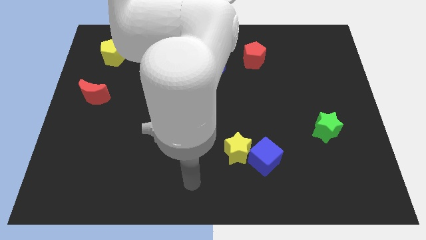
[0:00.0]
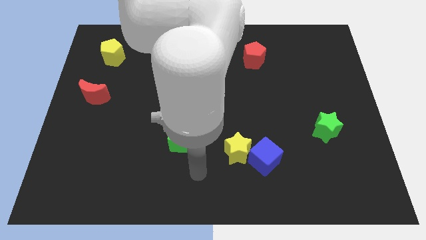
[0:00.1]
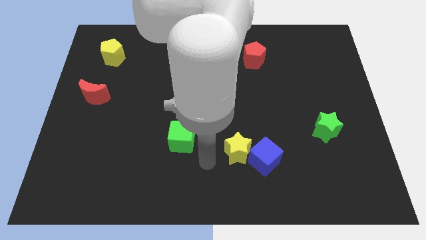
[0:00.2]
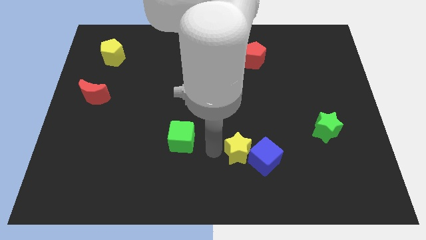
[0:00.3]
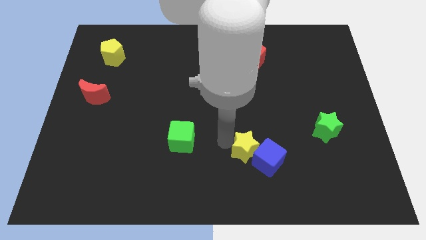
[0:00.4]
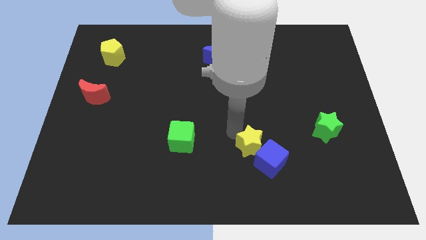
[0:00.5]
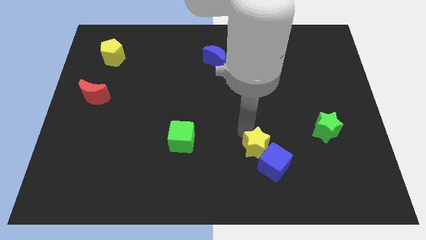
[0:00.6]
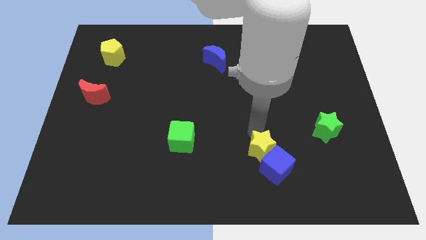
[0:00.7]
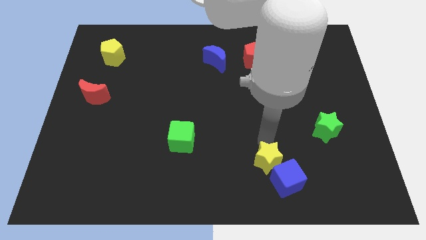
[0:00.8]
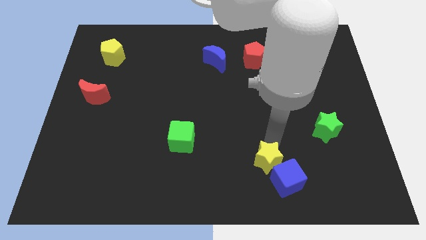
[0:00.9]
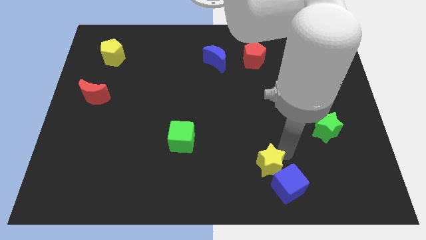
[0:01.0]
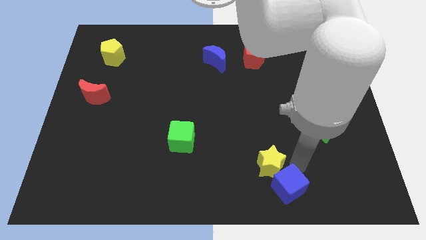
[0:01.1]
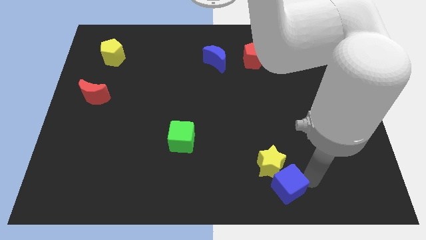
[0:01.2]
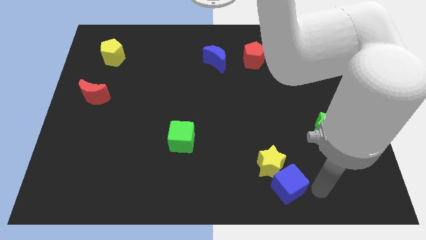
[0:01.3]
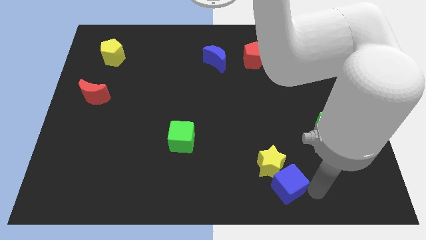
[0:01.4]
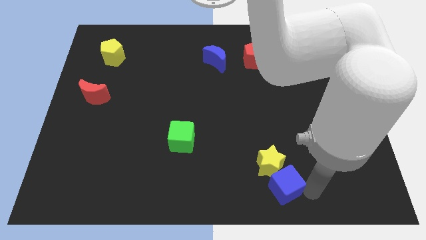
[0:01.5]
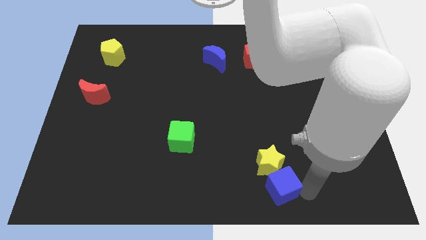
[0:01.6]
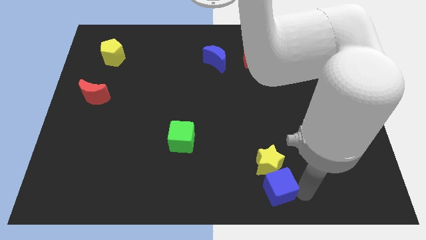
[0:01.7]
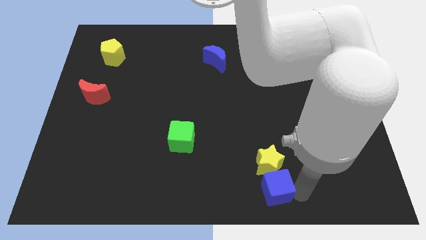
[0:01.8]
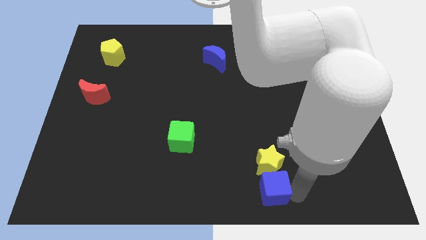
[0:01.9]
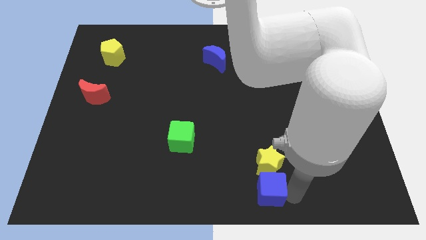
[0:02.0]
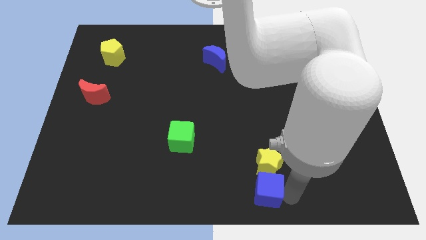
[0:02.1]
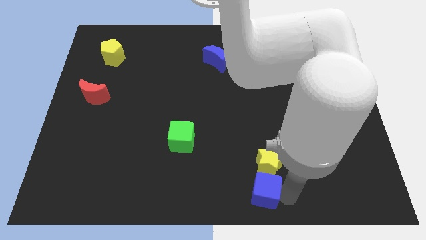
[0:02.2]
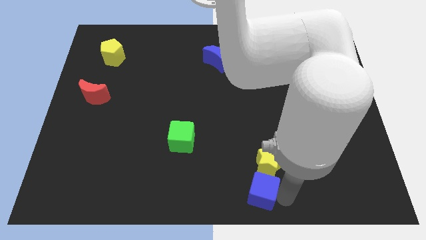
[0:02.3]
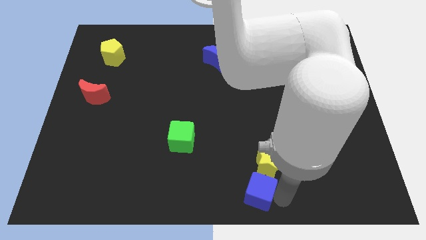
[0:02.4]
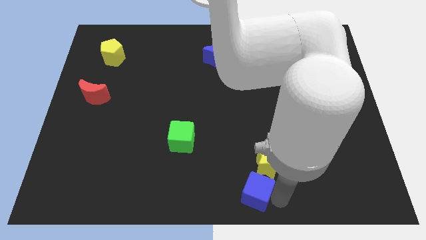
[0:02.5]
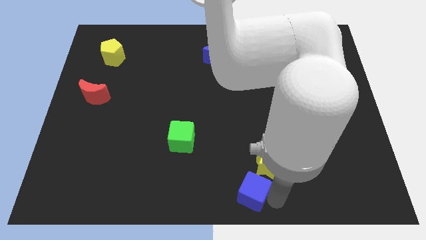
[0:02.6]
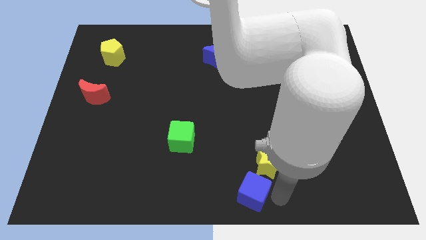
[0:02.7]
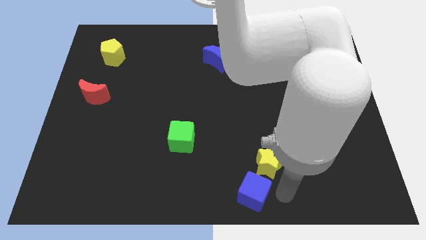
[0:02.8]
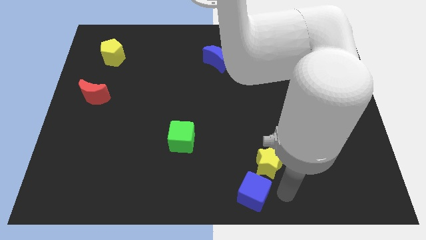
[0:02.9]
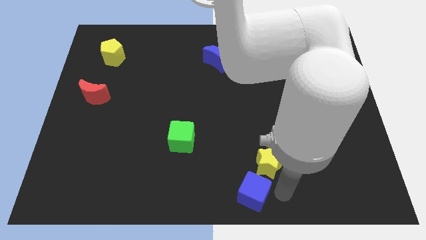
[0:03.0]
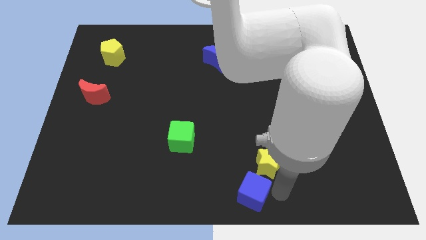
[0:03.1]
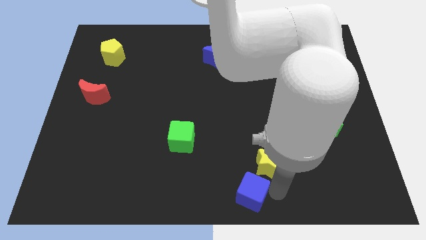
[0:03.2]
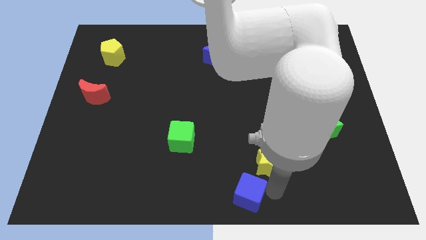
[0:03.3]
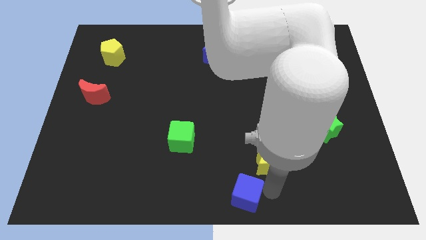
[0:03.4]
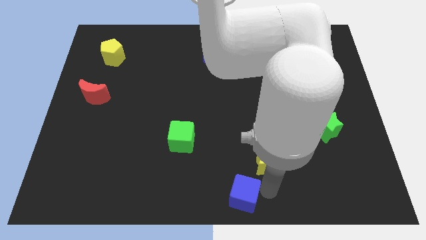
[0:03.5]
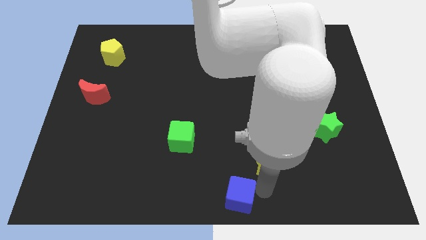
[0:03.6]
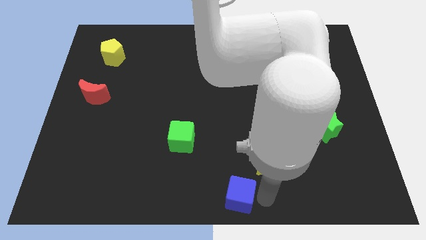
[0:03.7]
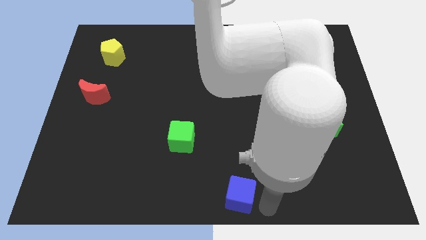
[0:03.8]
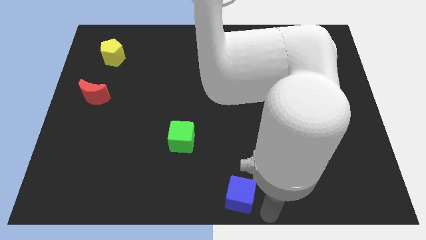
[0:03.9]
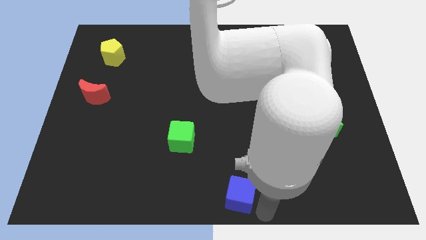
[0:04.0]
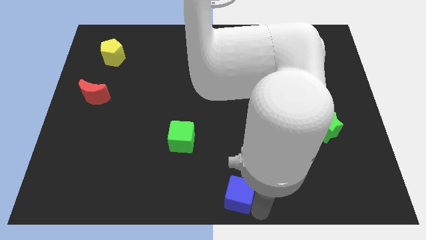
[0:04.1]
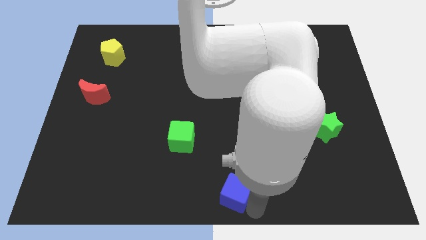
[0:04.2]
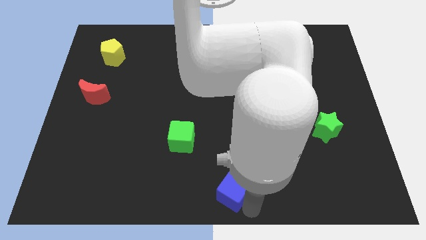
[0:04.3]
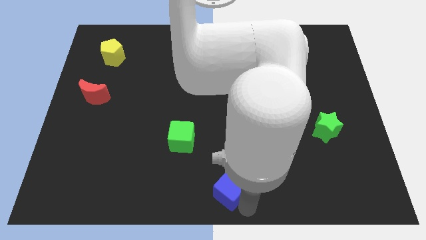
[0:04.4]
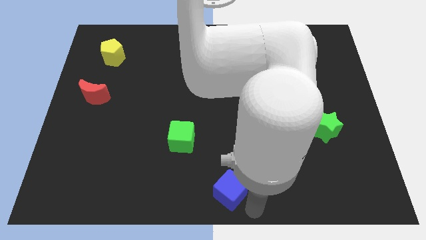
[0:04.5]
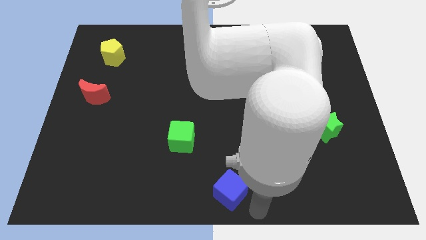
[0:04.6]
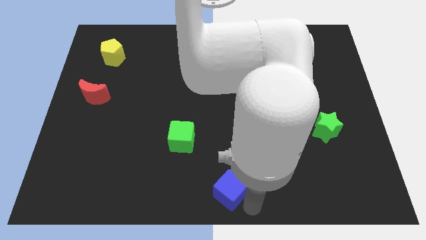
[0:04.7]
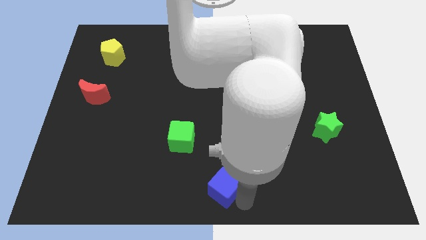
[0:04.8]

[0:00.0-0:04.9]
push the blue cube a little bit to the left

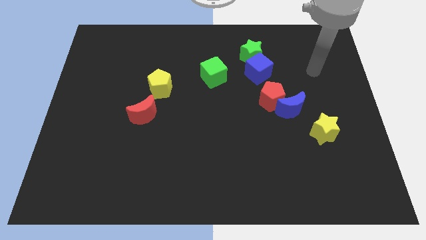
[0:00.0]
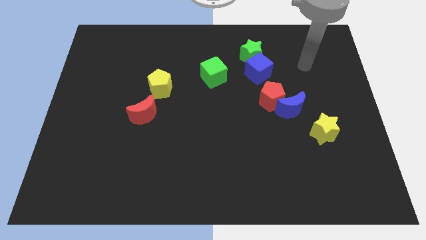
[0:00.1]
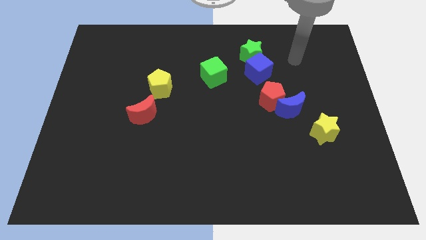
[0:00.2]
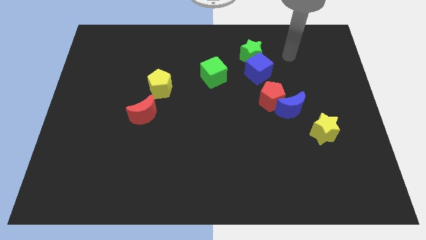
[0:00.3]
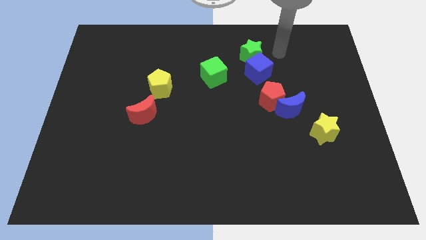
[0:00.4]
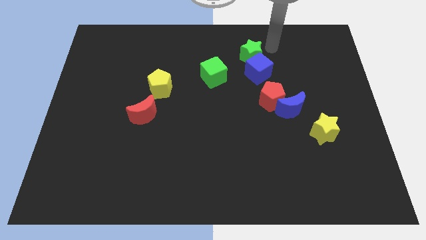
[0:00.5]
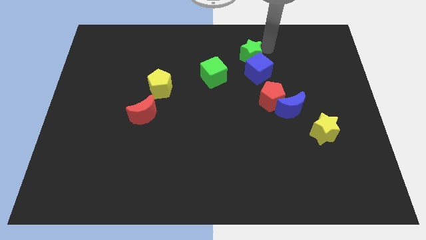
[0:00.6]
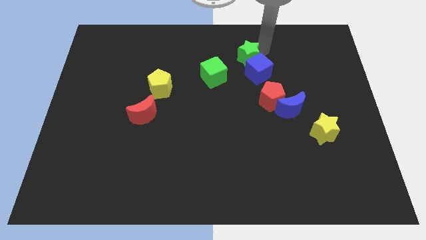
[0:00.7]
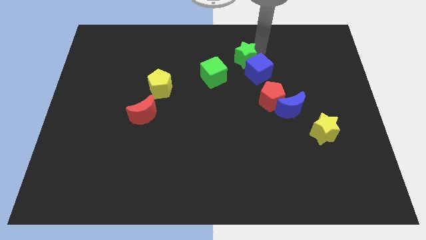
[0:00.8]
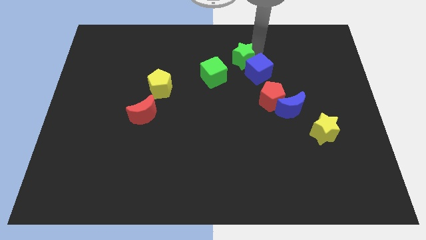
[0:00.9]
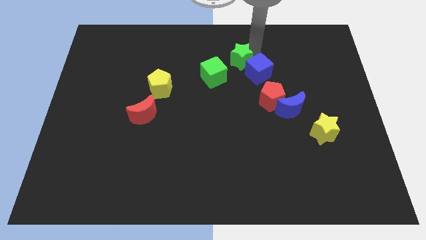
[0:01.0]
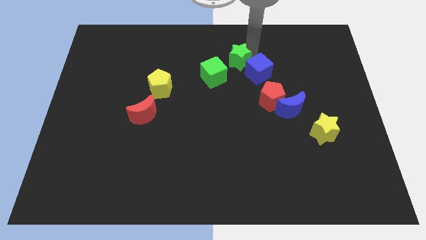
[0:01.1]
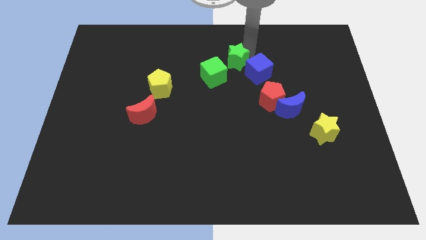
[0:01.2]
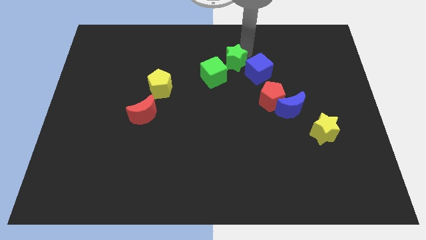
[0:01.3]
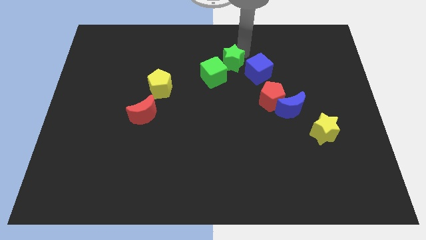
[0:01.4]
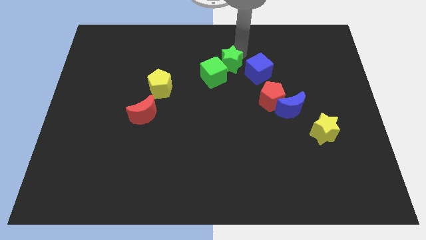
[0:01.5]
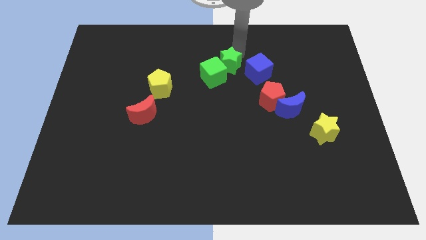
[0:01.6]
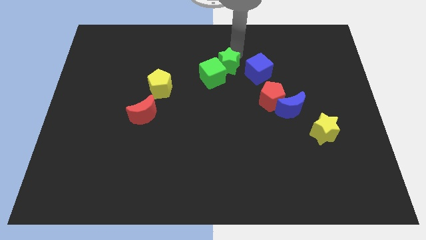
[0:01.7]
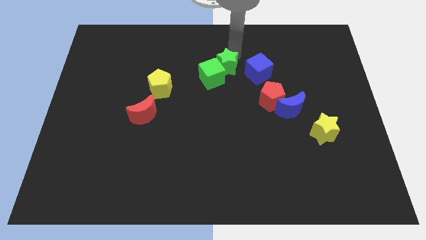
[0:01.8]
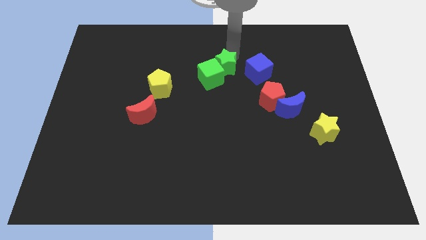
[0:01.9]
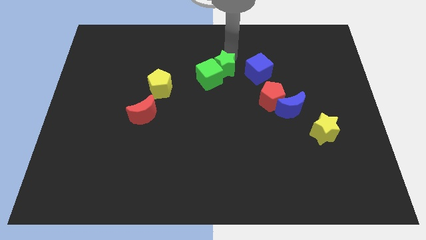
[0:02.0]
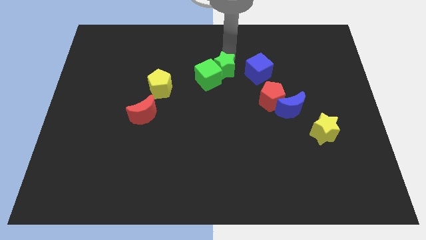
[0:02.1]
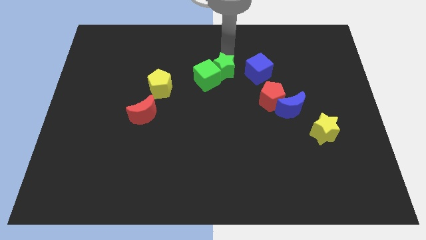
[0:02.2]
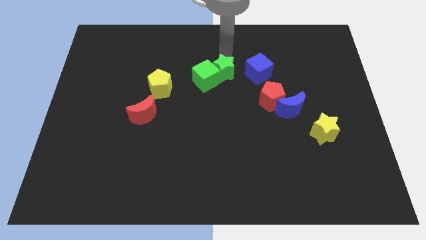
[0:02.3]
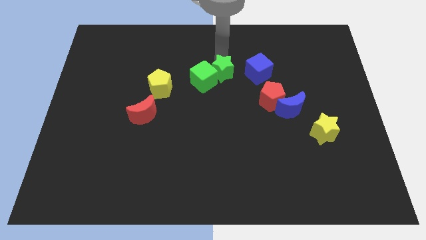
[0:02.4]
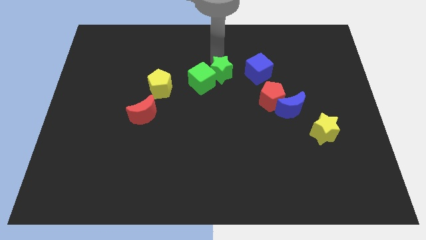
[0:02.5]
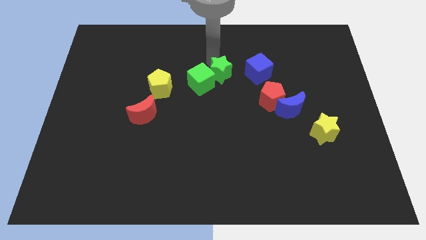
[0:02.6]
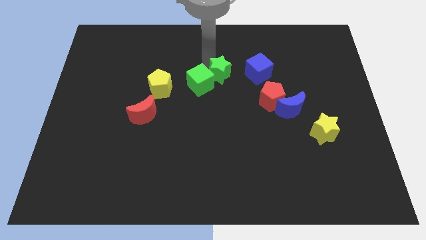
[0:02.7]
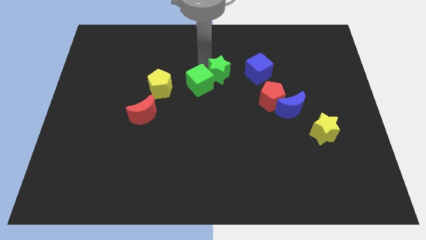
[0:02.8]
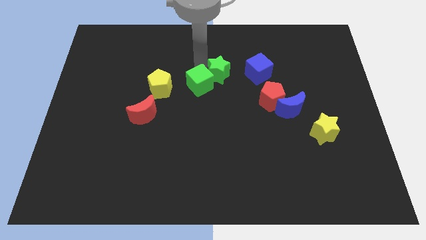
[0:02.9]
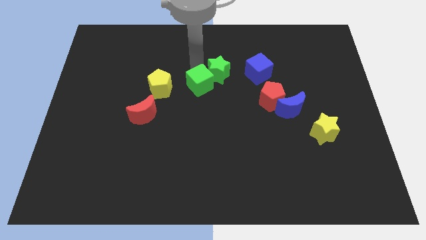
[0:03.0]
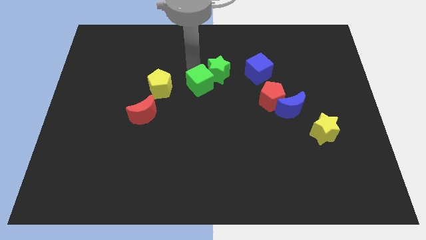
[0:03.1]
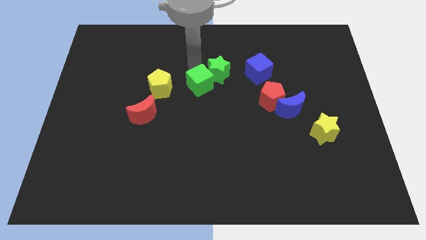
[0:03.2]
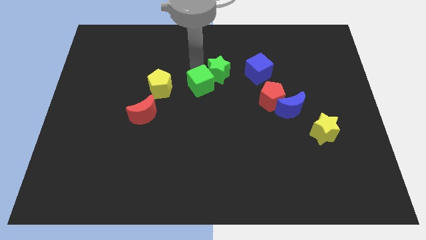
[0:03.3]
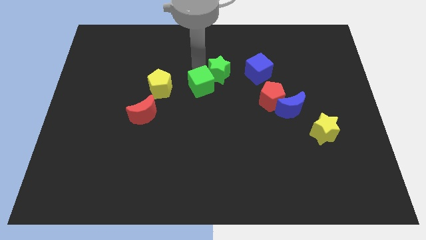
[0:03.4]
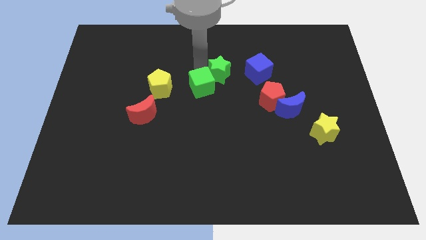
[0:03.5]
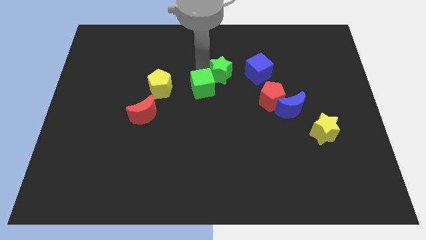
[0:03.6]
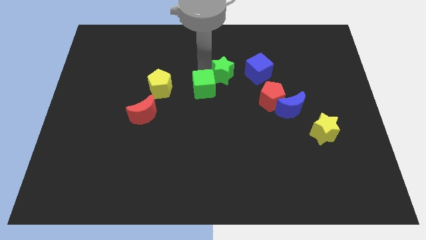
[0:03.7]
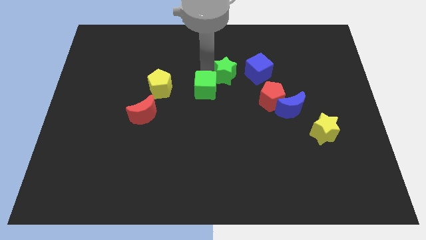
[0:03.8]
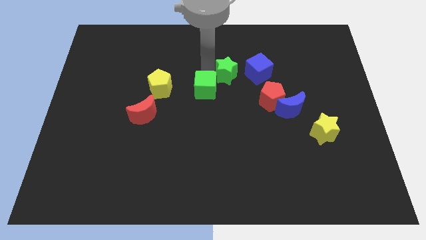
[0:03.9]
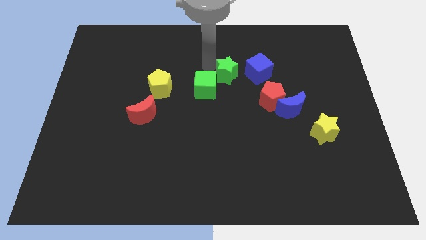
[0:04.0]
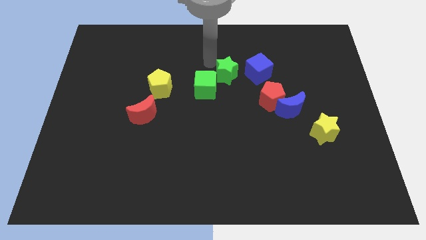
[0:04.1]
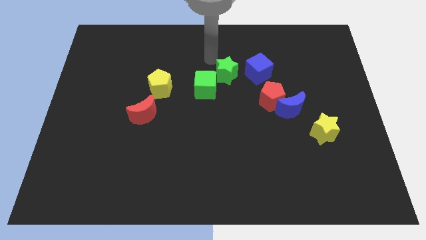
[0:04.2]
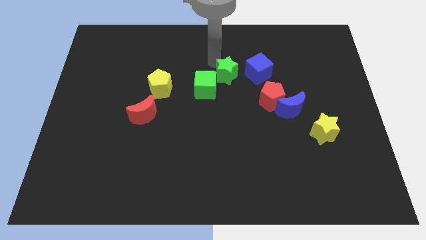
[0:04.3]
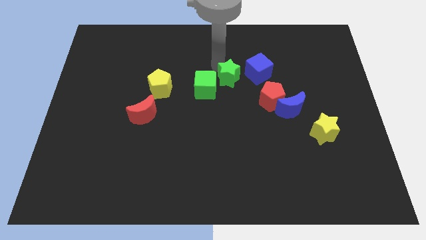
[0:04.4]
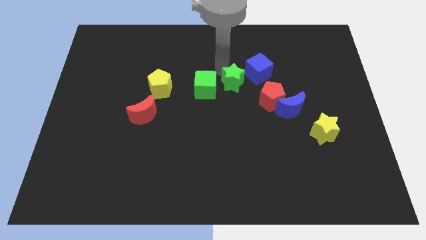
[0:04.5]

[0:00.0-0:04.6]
slightly slide the green star down
